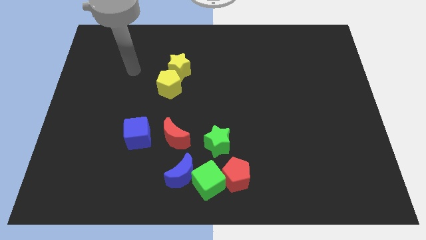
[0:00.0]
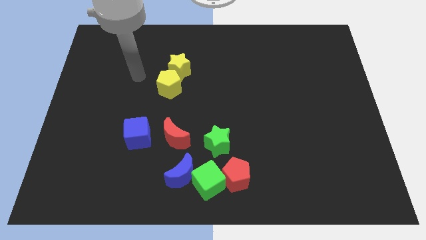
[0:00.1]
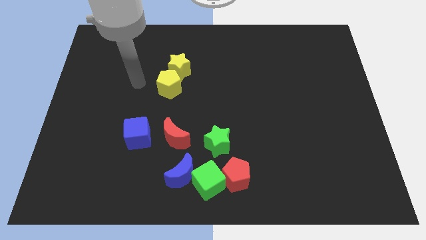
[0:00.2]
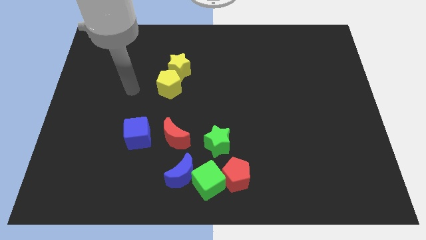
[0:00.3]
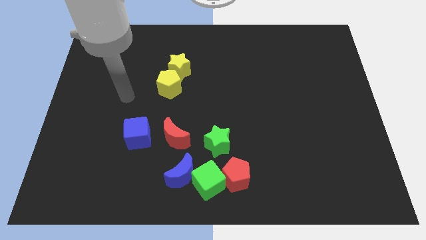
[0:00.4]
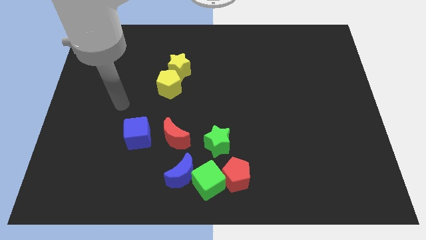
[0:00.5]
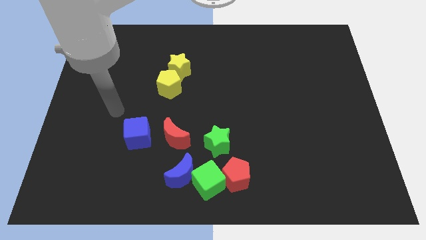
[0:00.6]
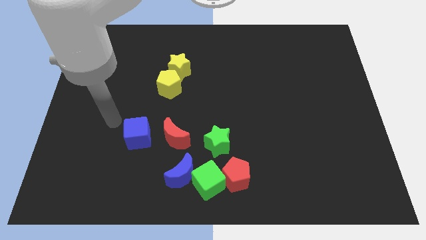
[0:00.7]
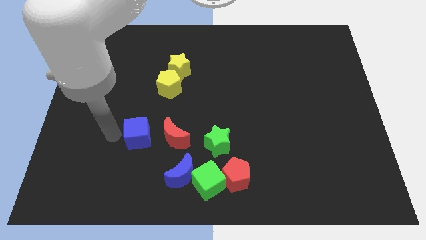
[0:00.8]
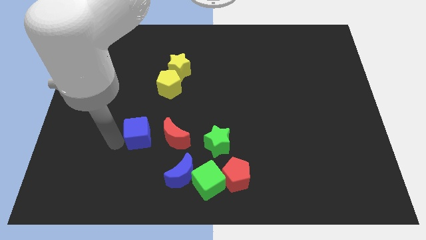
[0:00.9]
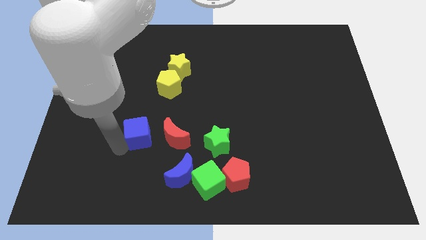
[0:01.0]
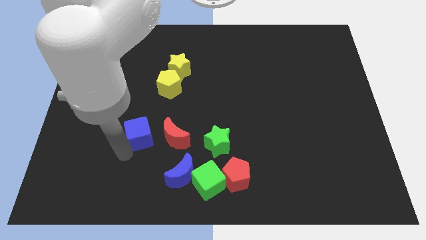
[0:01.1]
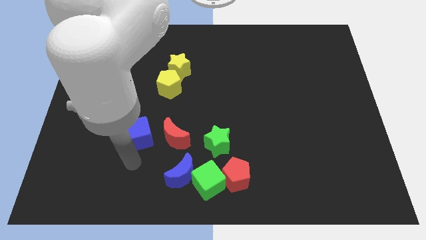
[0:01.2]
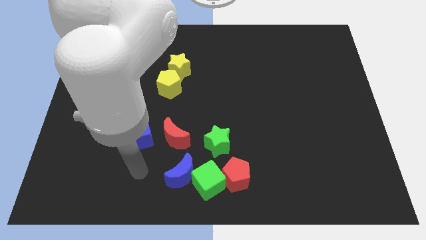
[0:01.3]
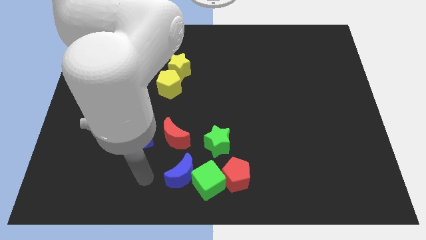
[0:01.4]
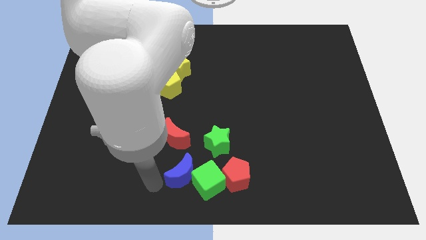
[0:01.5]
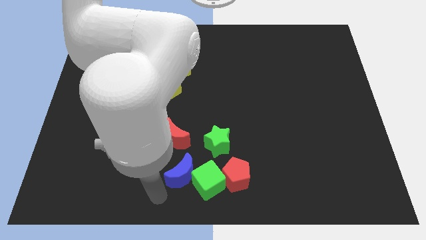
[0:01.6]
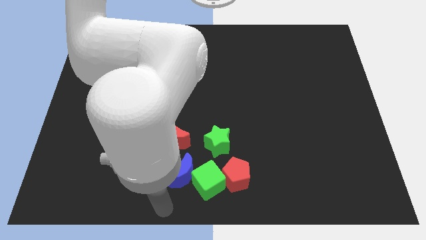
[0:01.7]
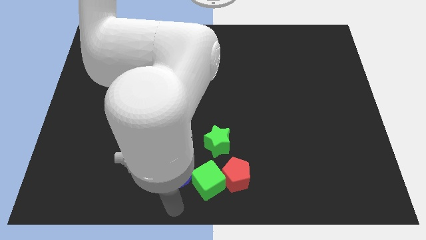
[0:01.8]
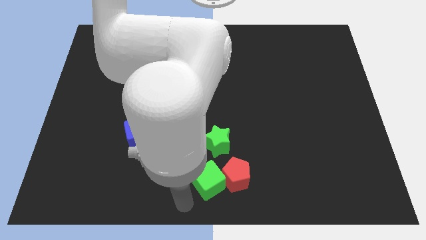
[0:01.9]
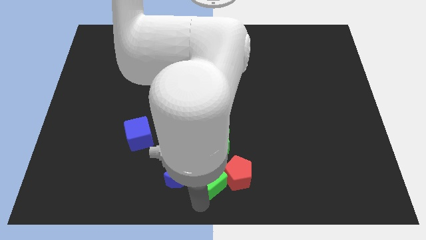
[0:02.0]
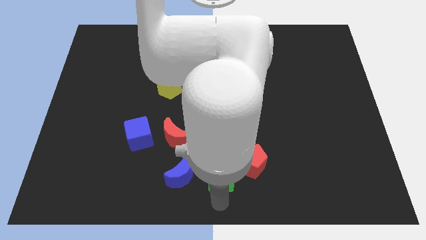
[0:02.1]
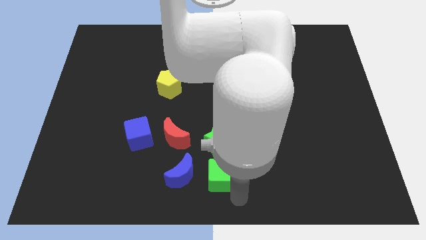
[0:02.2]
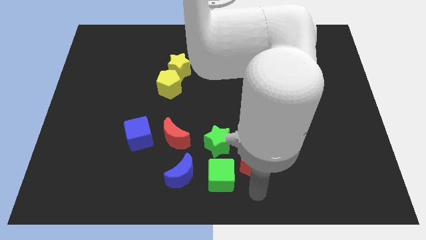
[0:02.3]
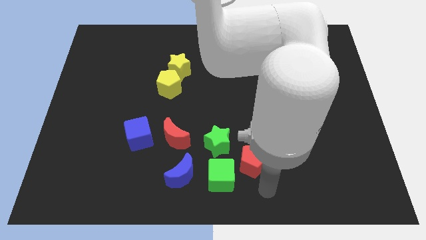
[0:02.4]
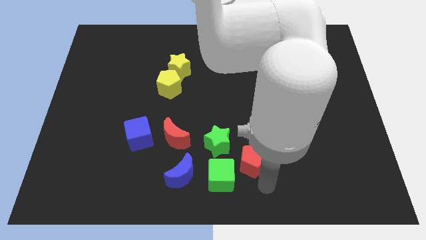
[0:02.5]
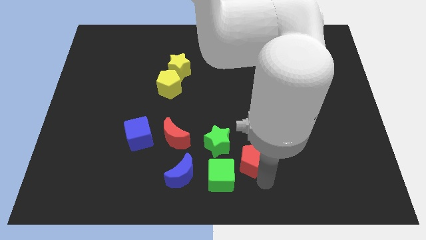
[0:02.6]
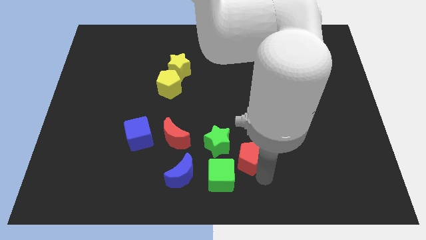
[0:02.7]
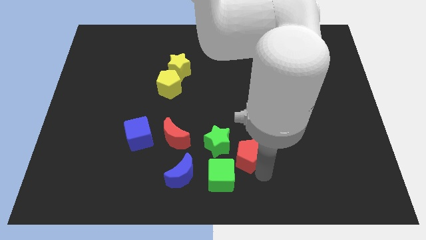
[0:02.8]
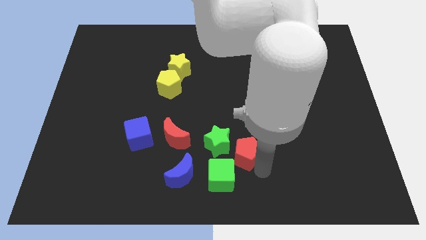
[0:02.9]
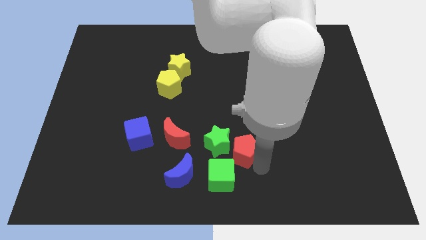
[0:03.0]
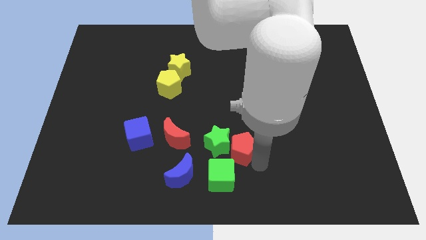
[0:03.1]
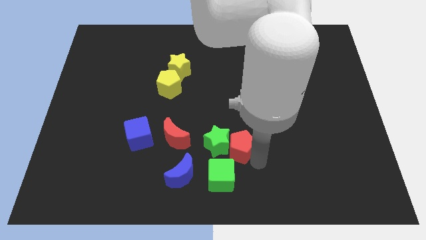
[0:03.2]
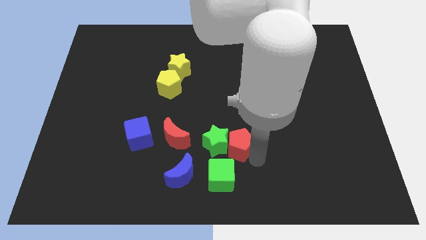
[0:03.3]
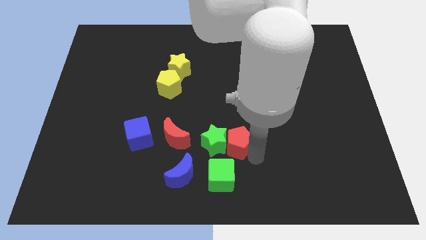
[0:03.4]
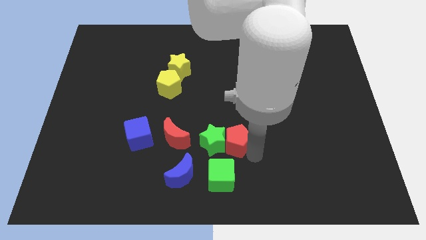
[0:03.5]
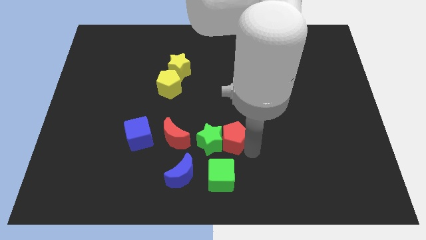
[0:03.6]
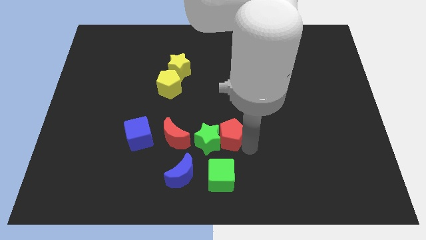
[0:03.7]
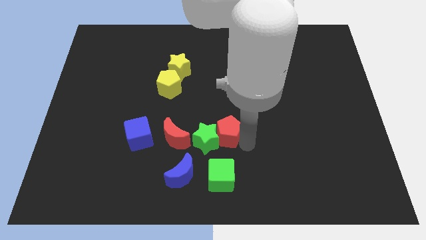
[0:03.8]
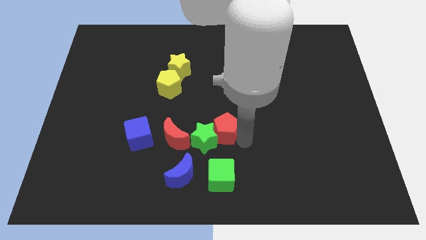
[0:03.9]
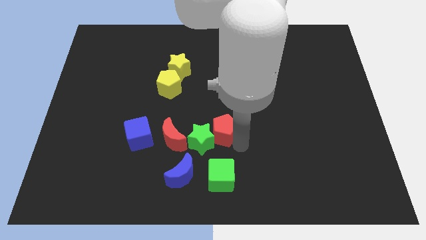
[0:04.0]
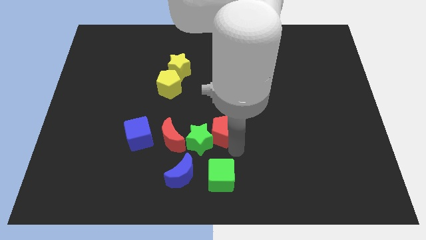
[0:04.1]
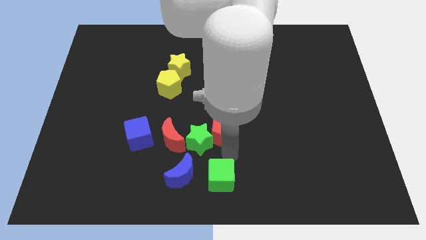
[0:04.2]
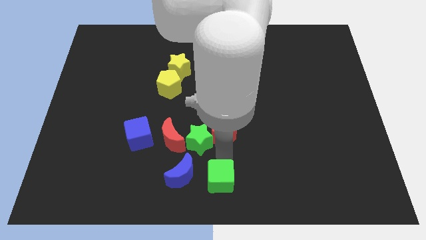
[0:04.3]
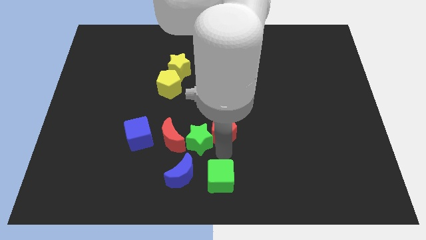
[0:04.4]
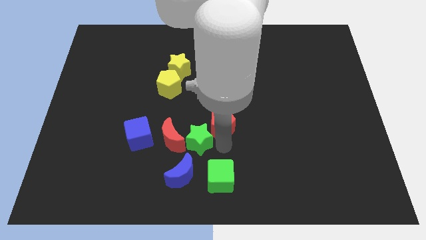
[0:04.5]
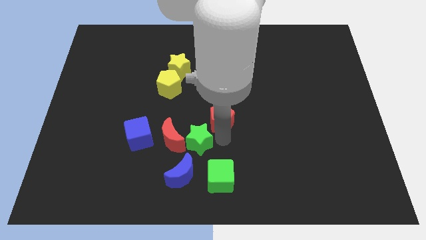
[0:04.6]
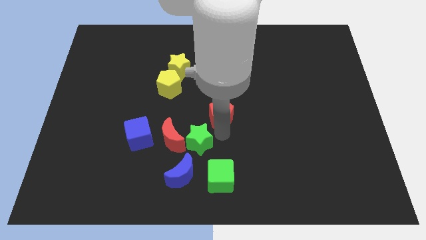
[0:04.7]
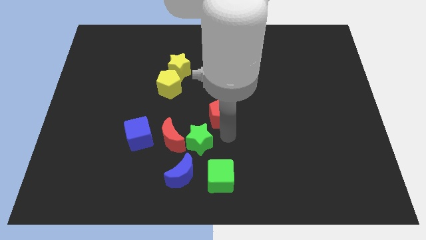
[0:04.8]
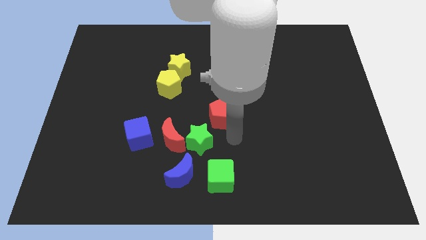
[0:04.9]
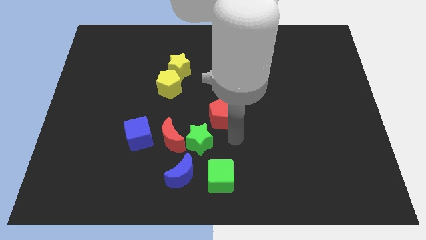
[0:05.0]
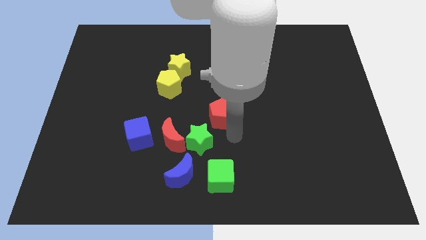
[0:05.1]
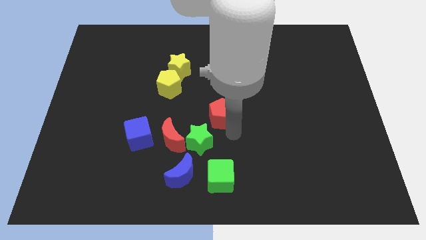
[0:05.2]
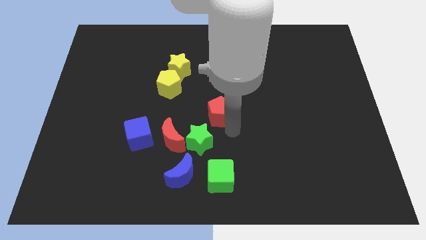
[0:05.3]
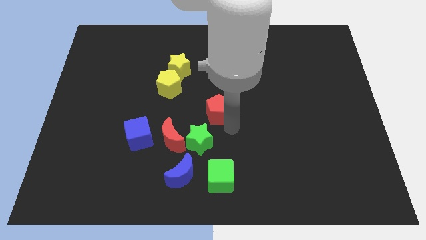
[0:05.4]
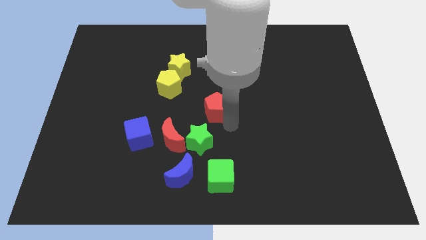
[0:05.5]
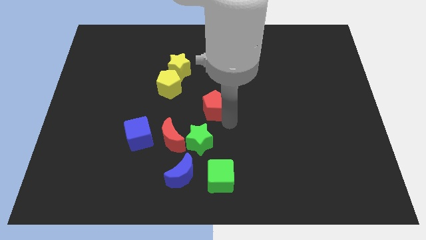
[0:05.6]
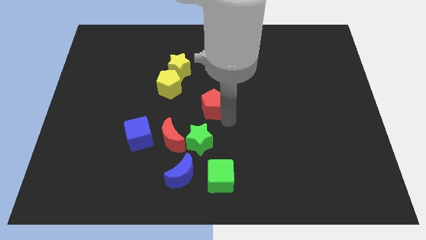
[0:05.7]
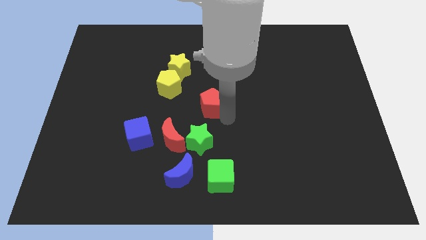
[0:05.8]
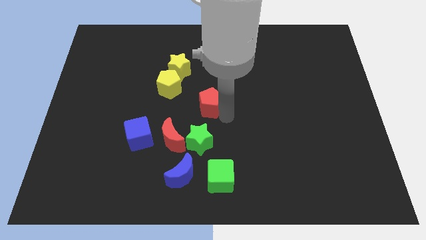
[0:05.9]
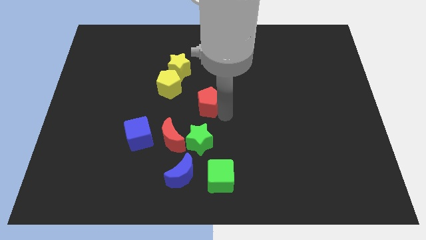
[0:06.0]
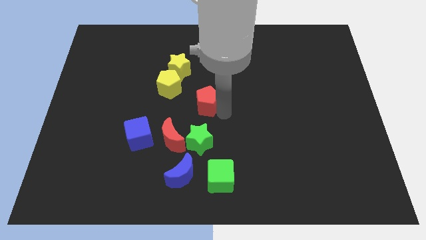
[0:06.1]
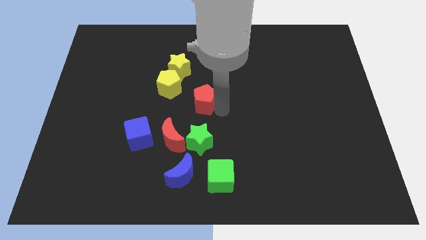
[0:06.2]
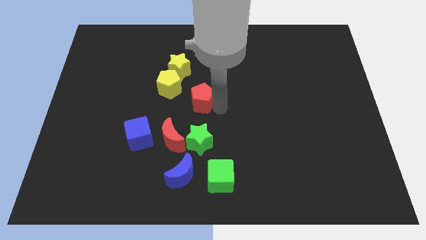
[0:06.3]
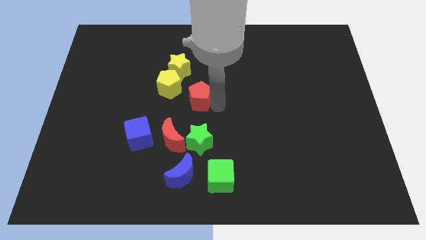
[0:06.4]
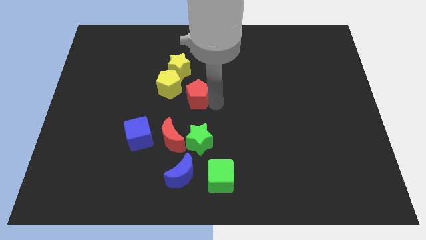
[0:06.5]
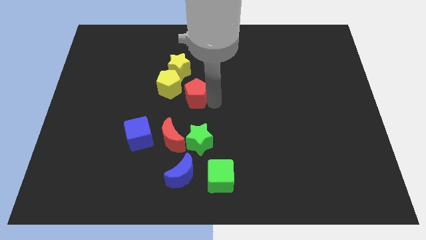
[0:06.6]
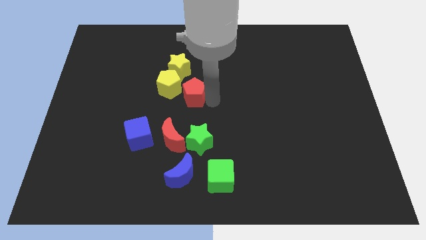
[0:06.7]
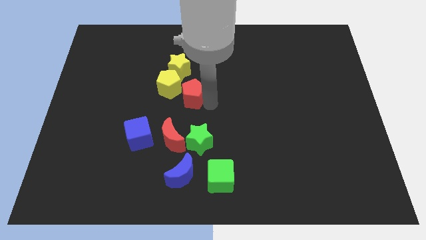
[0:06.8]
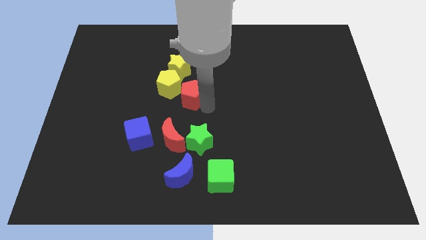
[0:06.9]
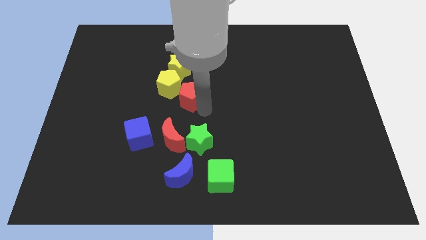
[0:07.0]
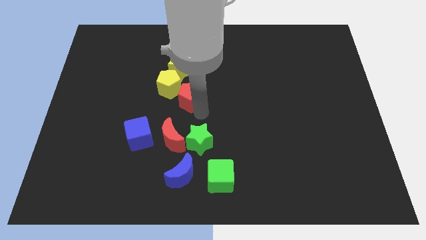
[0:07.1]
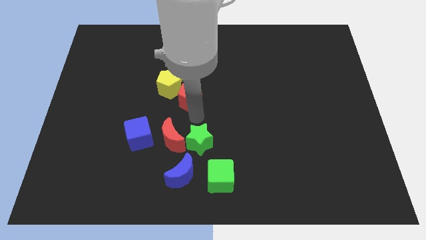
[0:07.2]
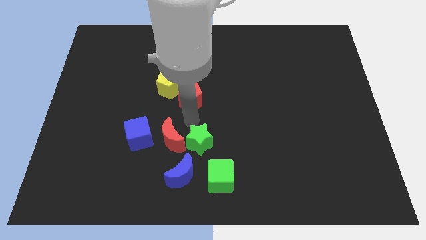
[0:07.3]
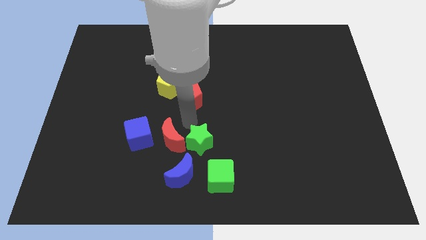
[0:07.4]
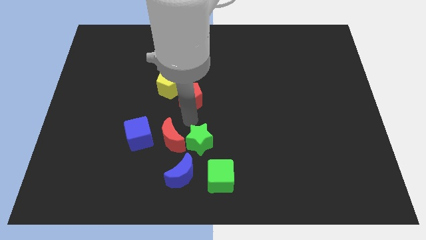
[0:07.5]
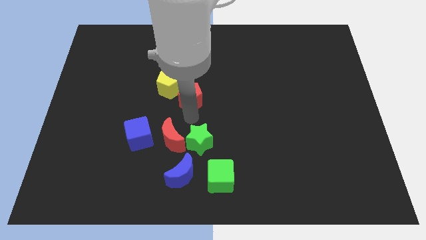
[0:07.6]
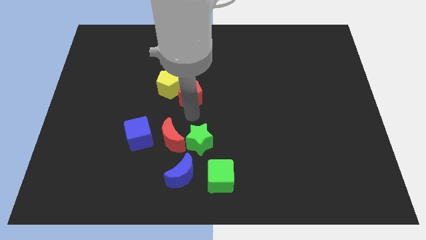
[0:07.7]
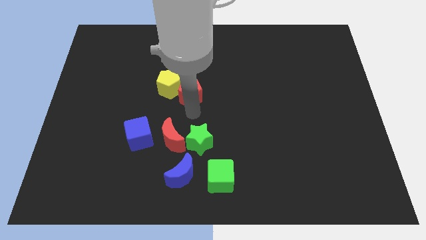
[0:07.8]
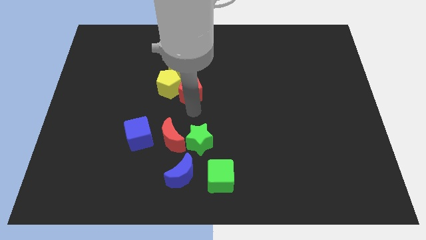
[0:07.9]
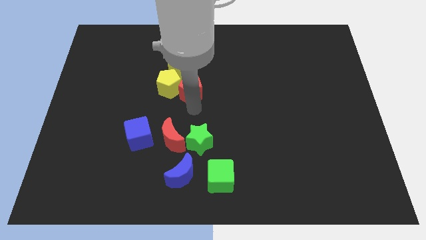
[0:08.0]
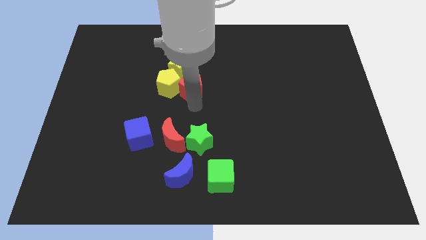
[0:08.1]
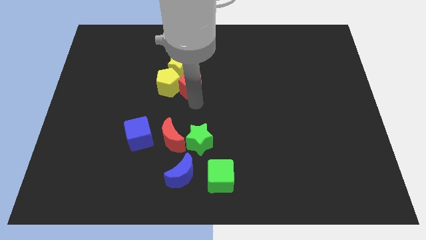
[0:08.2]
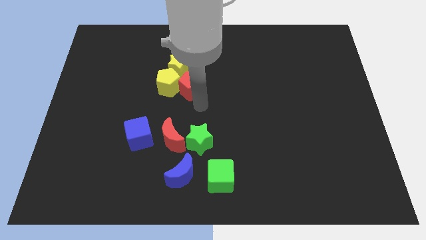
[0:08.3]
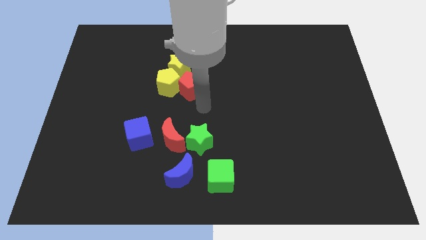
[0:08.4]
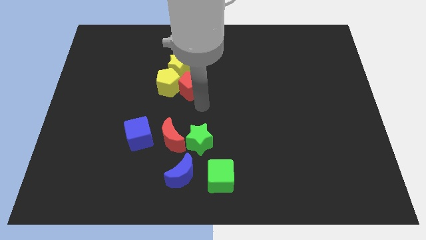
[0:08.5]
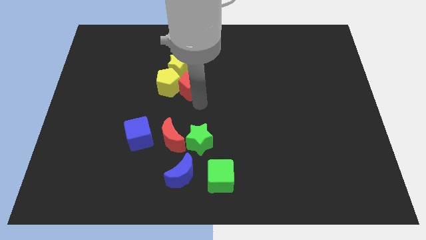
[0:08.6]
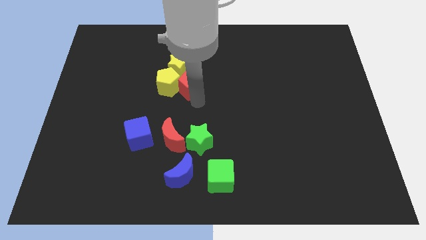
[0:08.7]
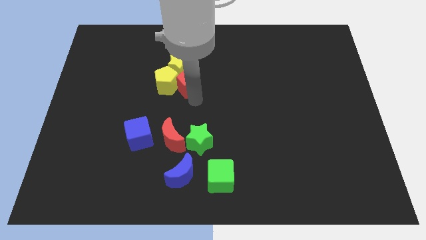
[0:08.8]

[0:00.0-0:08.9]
move the red pentagon towards the yellow star
